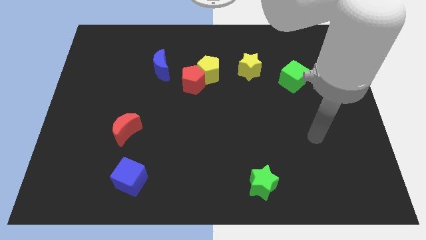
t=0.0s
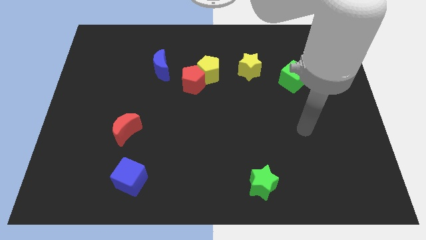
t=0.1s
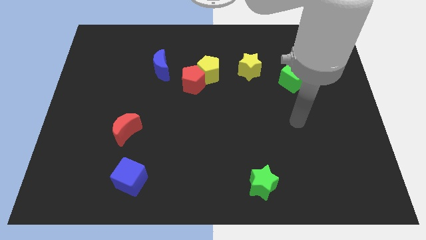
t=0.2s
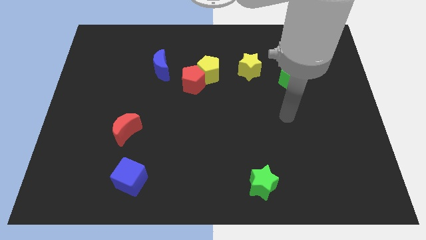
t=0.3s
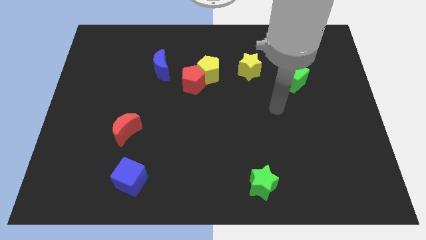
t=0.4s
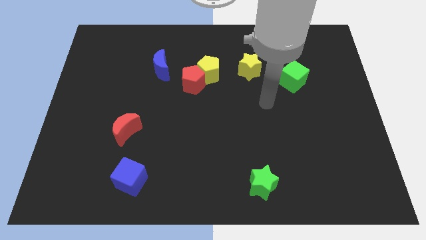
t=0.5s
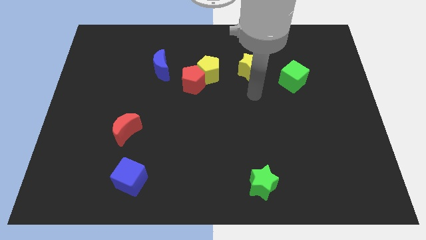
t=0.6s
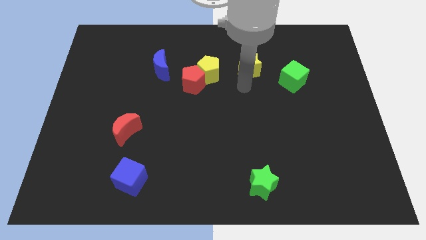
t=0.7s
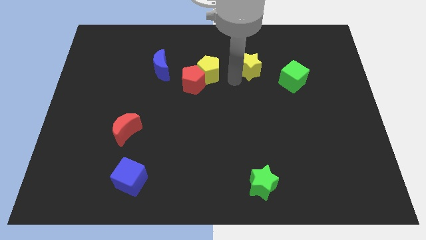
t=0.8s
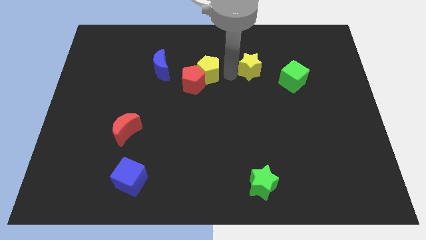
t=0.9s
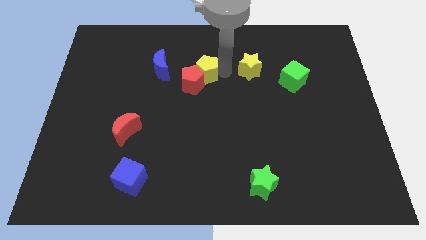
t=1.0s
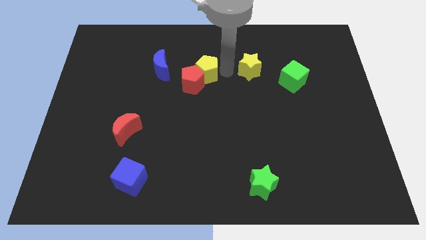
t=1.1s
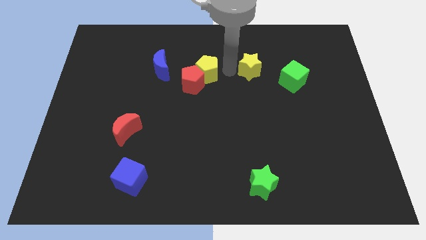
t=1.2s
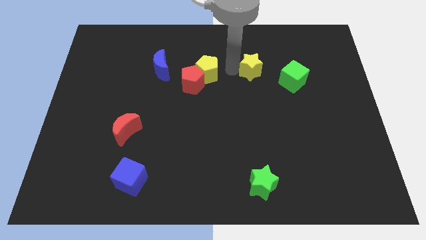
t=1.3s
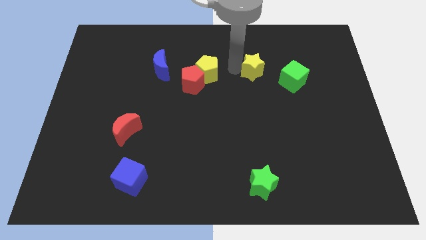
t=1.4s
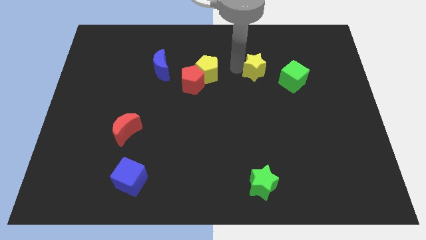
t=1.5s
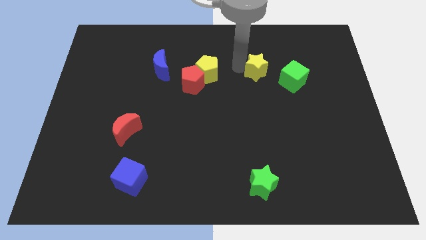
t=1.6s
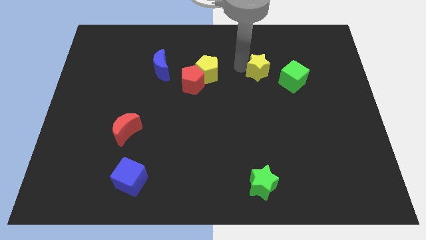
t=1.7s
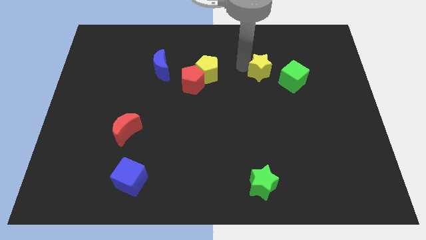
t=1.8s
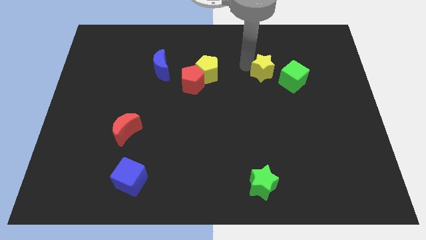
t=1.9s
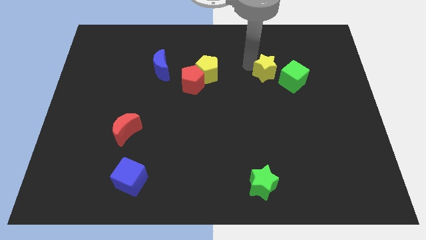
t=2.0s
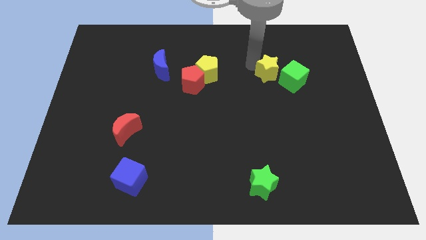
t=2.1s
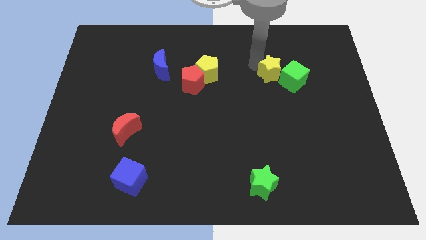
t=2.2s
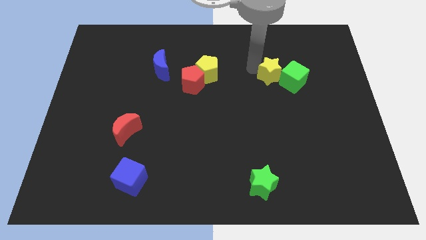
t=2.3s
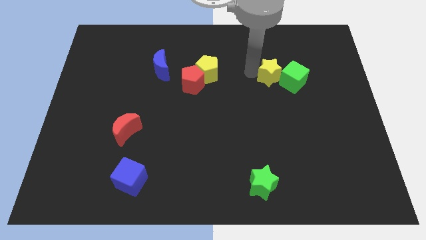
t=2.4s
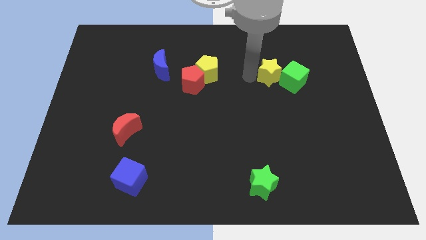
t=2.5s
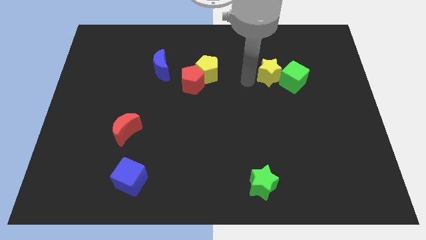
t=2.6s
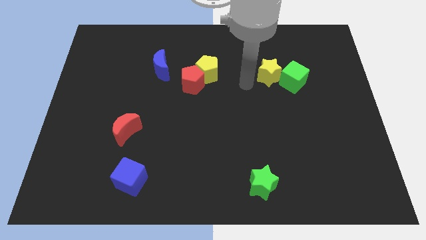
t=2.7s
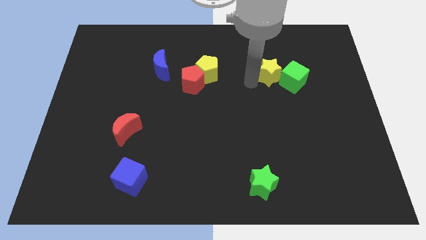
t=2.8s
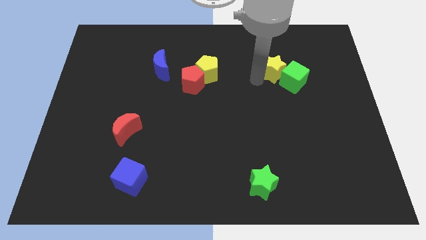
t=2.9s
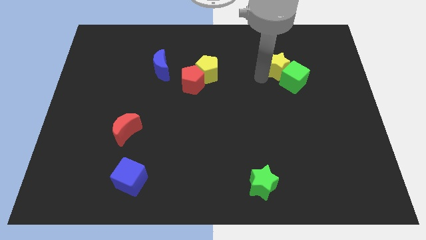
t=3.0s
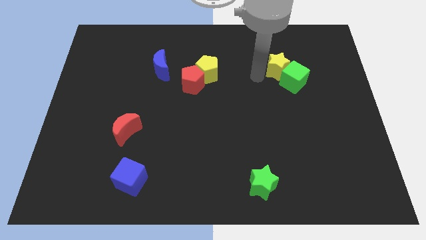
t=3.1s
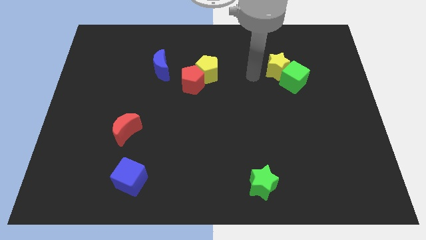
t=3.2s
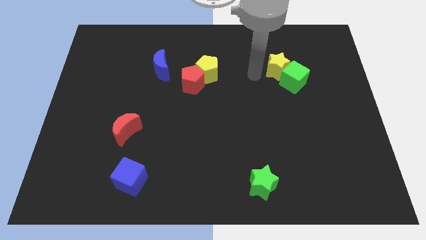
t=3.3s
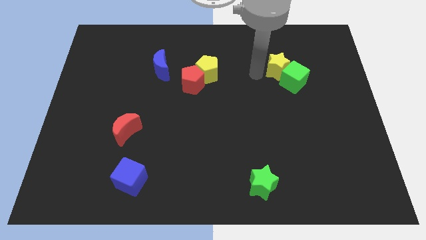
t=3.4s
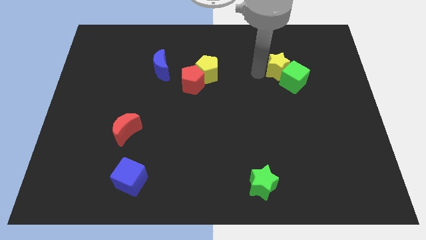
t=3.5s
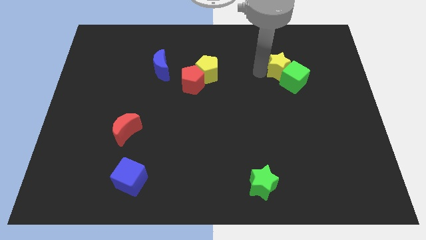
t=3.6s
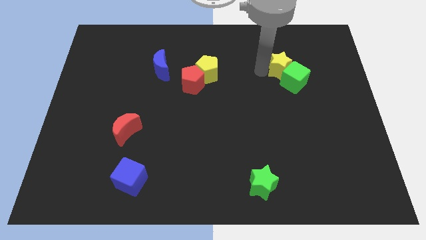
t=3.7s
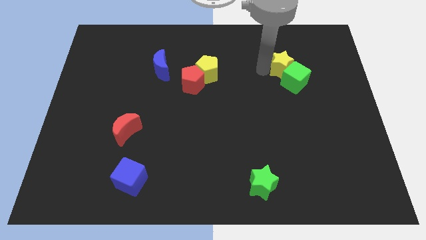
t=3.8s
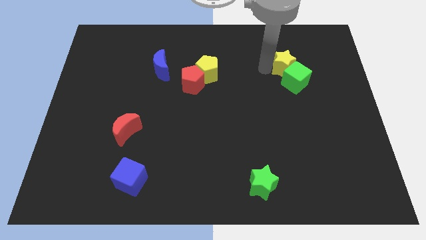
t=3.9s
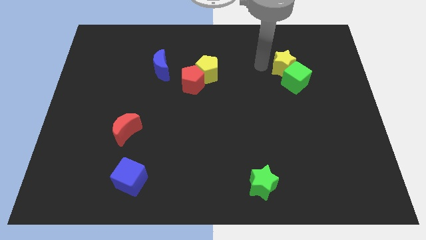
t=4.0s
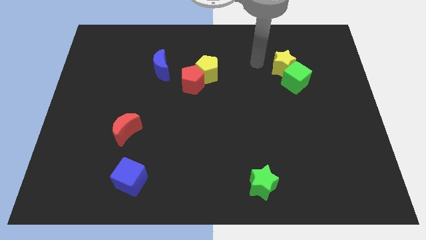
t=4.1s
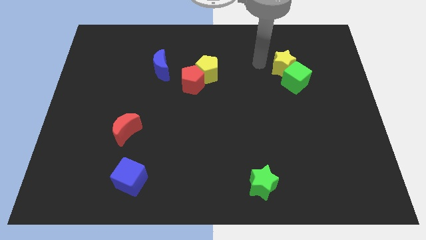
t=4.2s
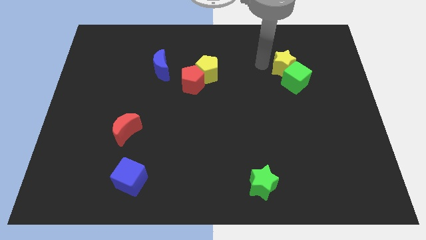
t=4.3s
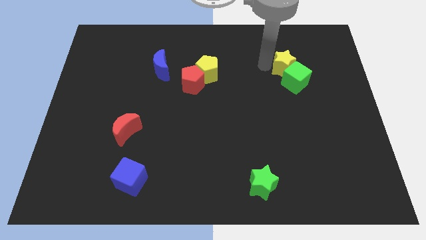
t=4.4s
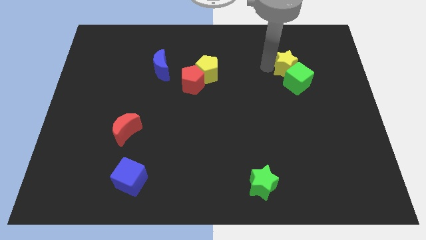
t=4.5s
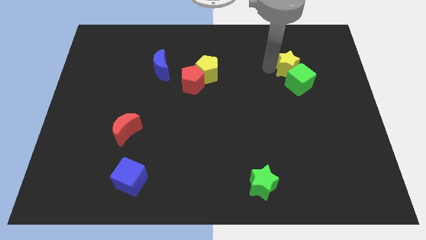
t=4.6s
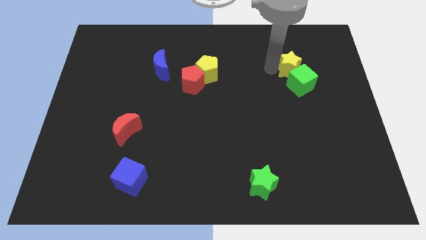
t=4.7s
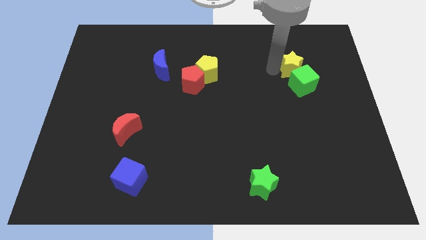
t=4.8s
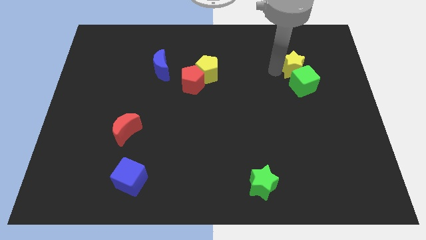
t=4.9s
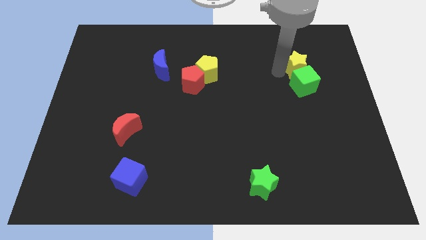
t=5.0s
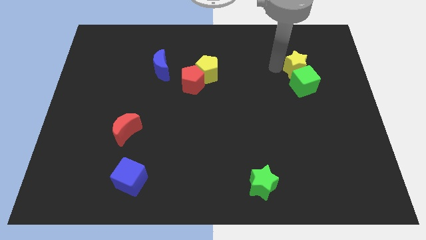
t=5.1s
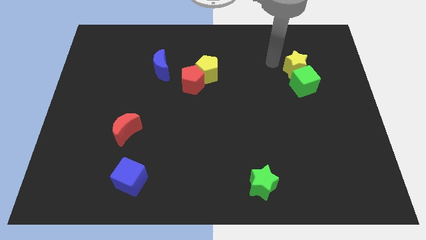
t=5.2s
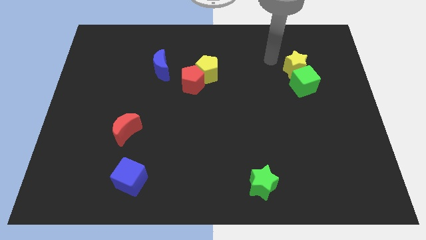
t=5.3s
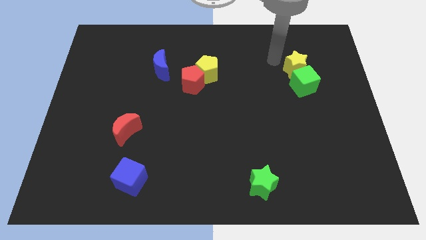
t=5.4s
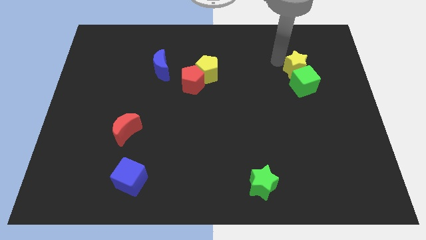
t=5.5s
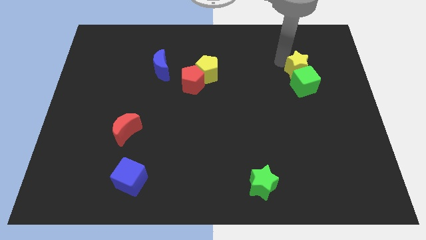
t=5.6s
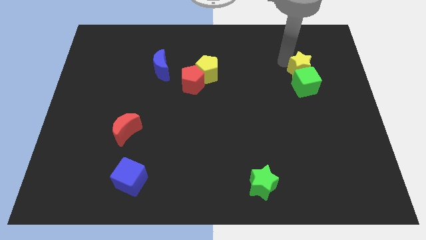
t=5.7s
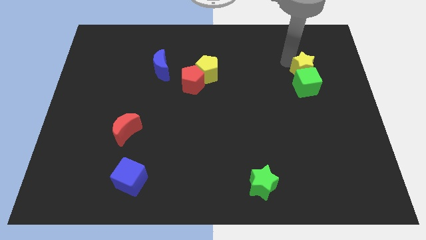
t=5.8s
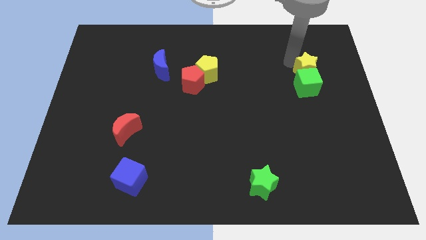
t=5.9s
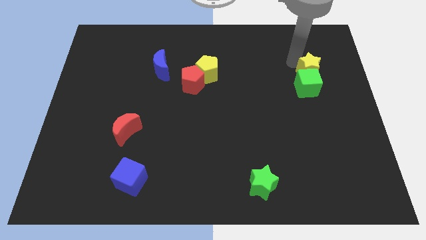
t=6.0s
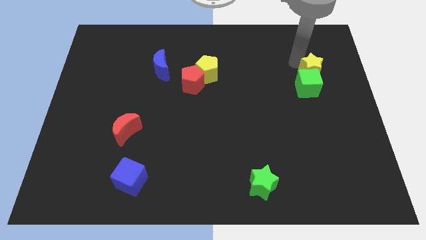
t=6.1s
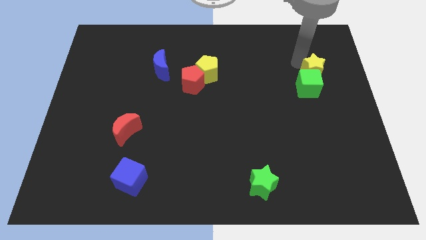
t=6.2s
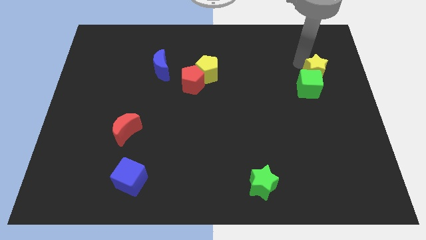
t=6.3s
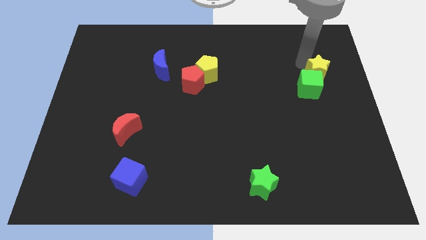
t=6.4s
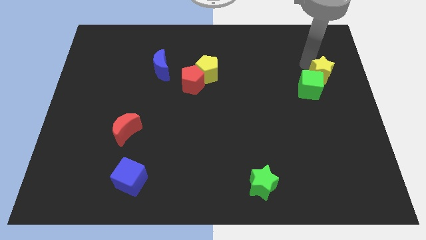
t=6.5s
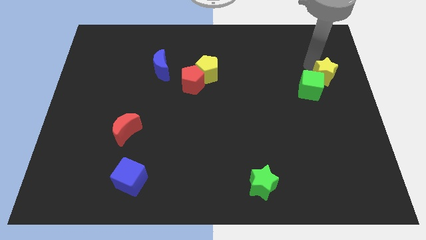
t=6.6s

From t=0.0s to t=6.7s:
push the yellow star to the right side

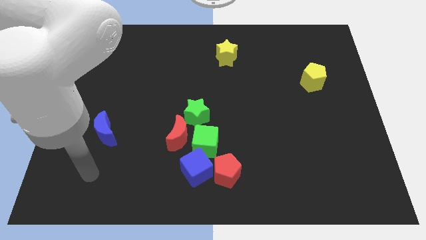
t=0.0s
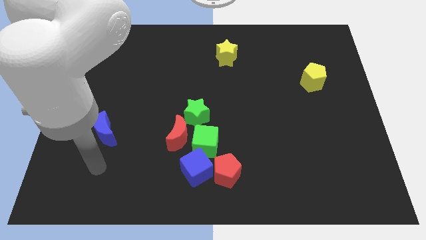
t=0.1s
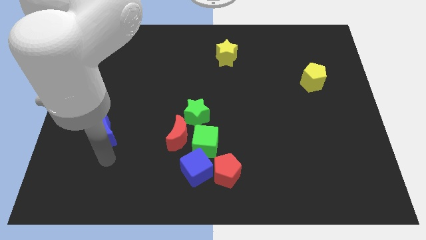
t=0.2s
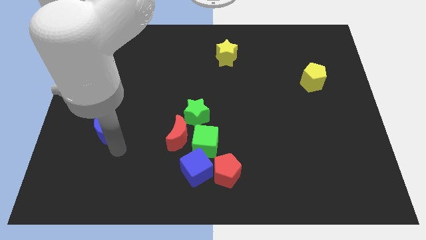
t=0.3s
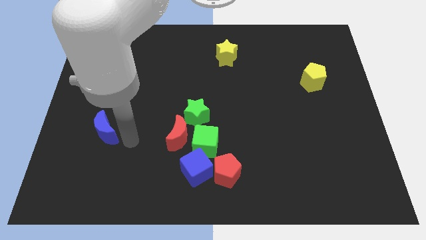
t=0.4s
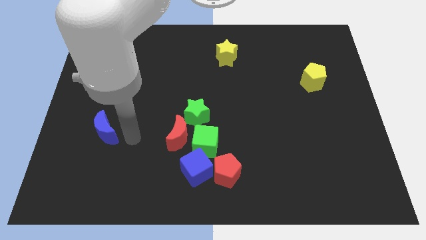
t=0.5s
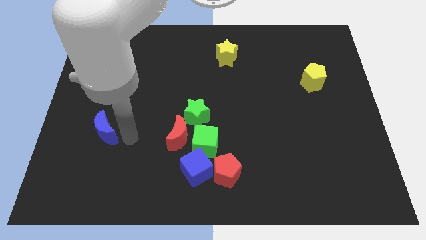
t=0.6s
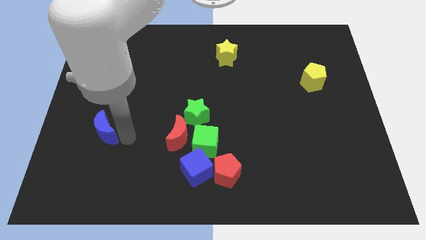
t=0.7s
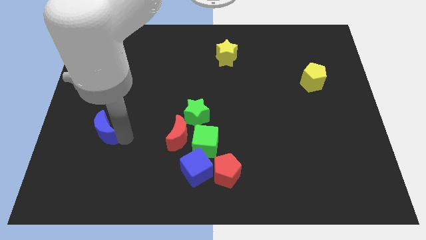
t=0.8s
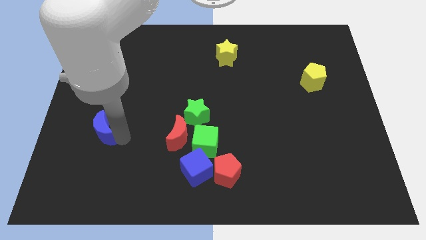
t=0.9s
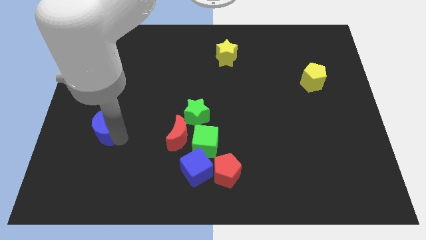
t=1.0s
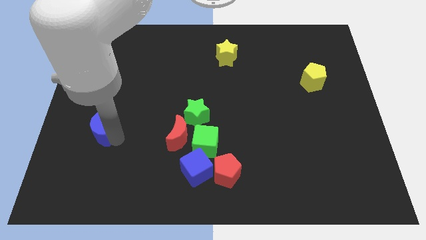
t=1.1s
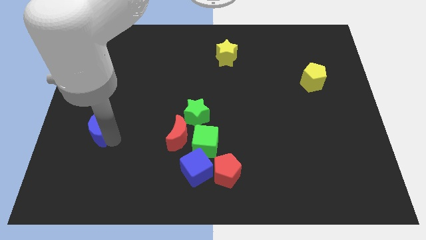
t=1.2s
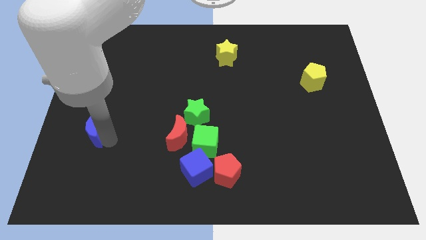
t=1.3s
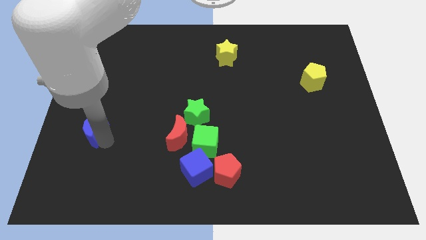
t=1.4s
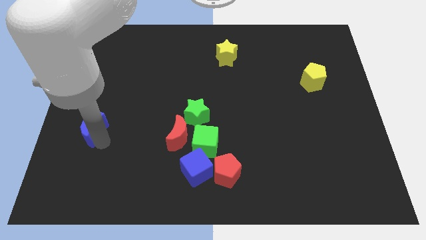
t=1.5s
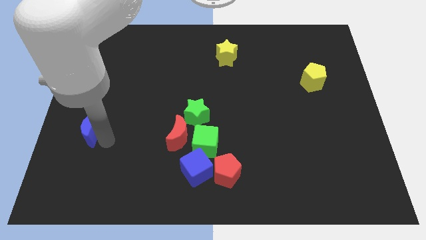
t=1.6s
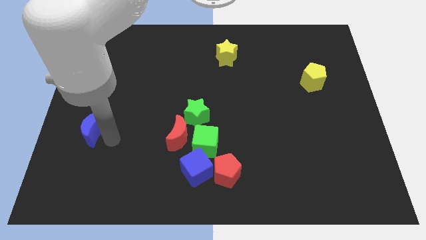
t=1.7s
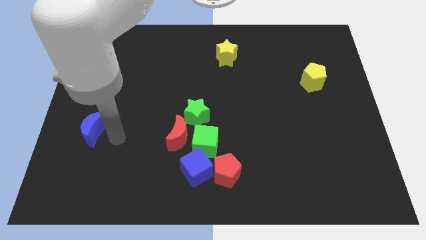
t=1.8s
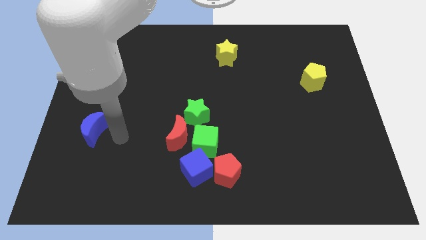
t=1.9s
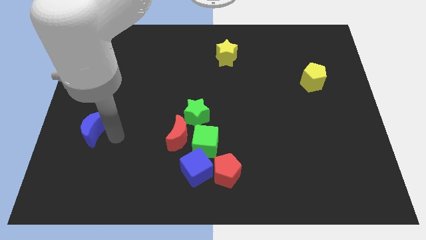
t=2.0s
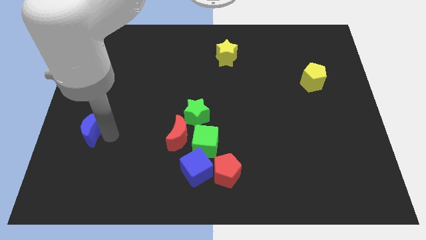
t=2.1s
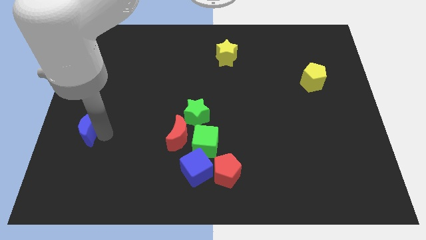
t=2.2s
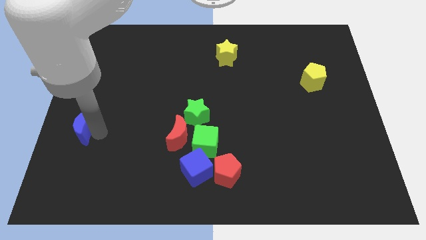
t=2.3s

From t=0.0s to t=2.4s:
move the blue moon to the left side of the board
